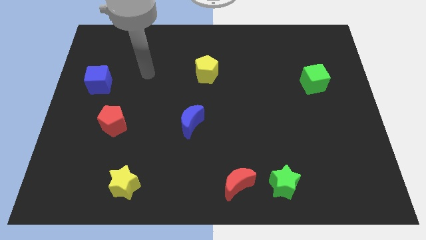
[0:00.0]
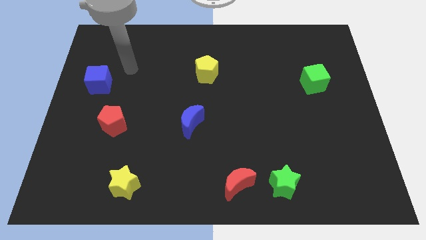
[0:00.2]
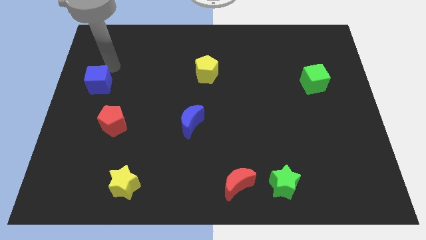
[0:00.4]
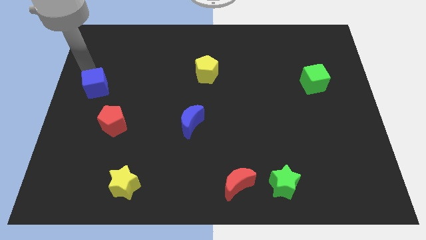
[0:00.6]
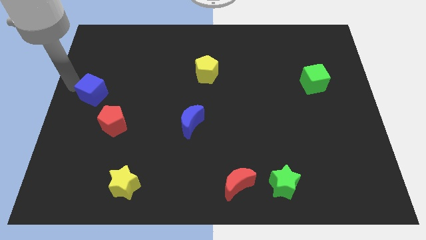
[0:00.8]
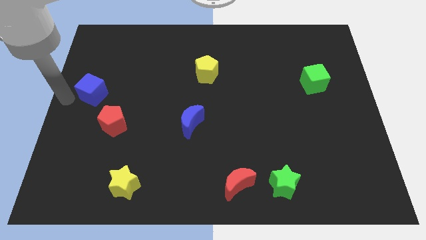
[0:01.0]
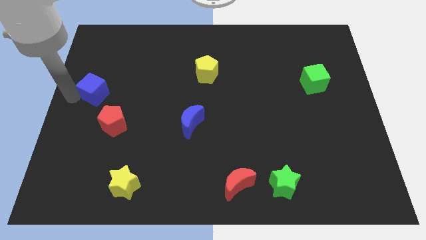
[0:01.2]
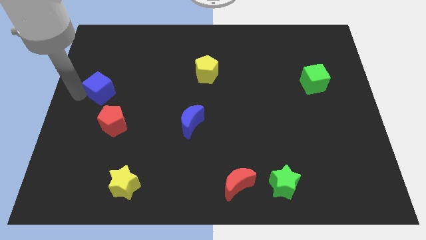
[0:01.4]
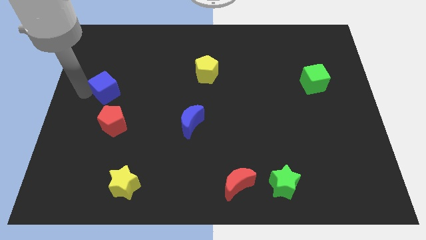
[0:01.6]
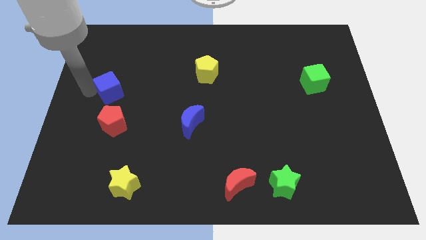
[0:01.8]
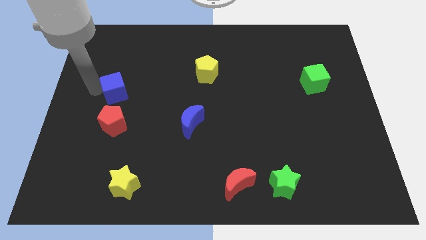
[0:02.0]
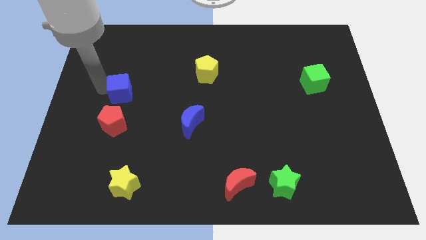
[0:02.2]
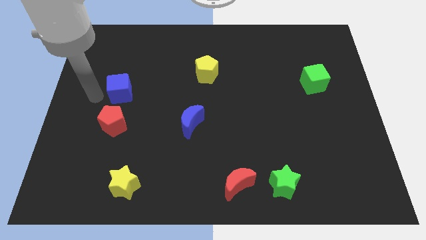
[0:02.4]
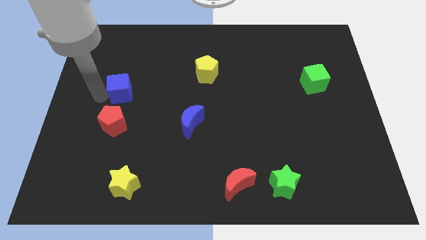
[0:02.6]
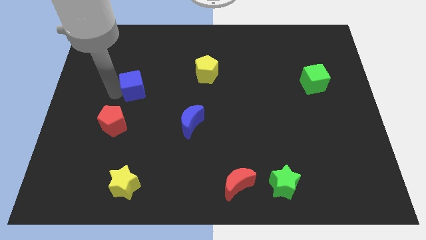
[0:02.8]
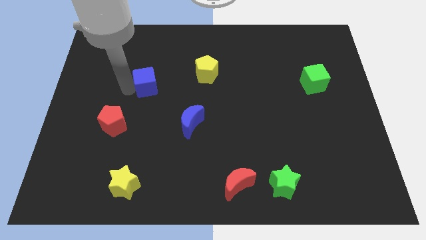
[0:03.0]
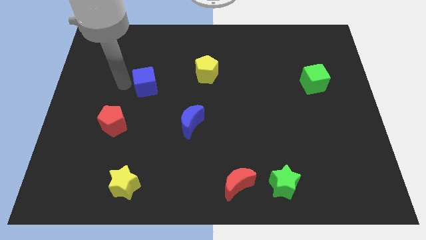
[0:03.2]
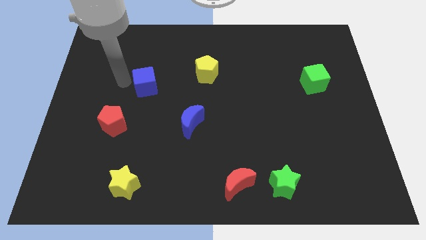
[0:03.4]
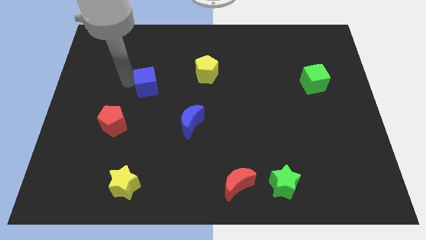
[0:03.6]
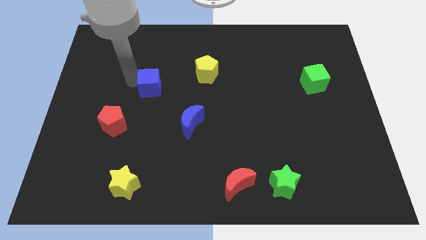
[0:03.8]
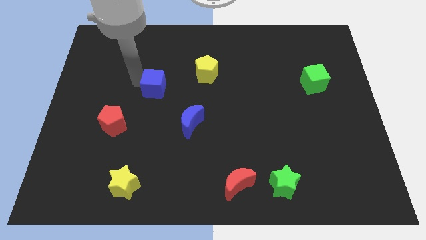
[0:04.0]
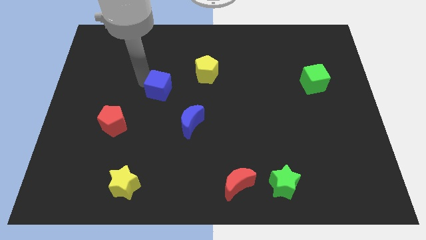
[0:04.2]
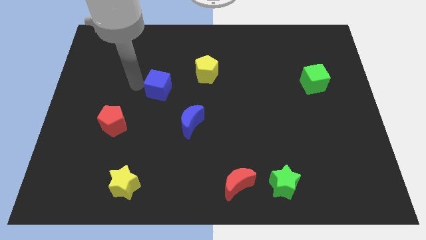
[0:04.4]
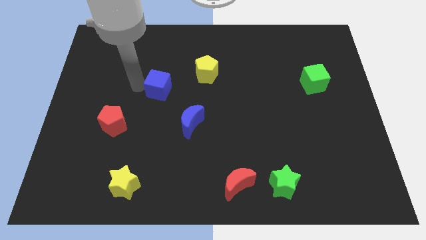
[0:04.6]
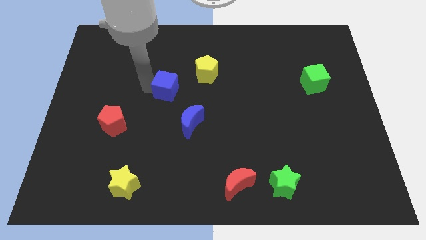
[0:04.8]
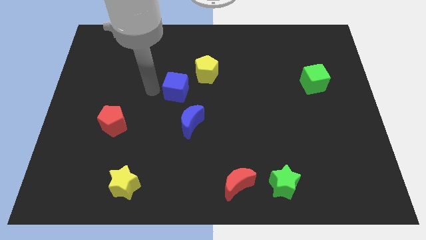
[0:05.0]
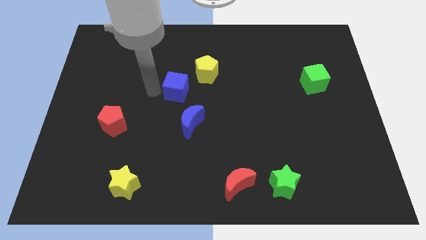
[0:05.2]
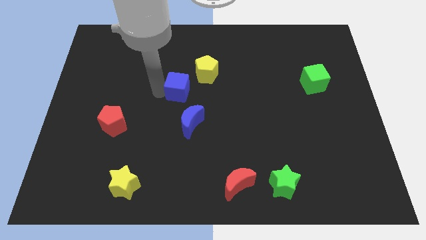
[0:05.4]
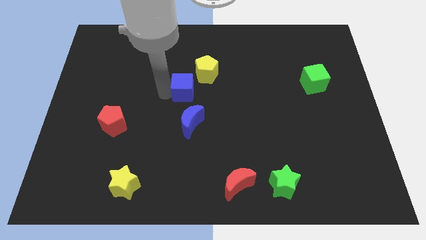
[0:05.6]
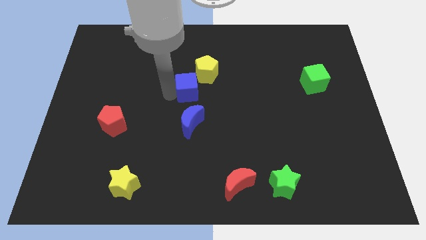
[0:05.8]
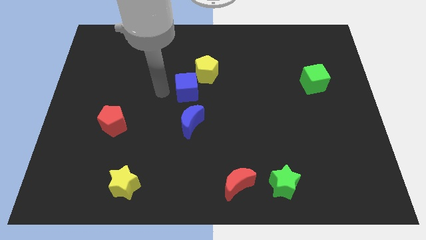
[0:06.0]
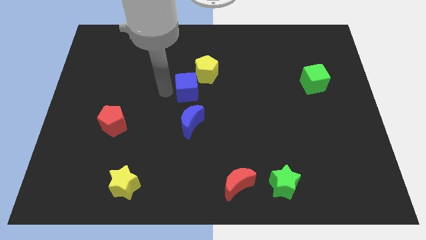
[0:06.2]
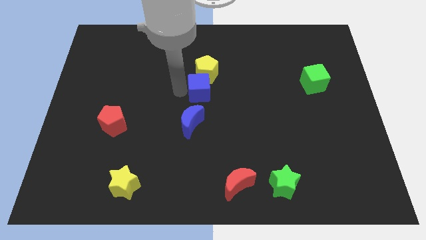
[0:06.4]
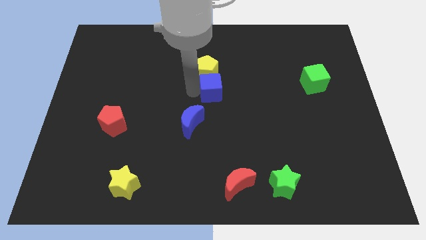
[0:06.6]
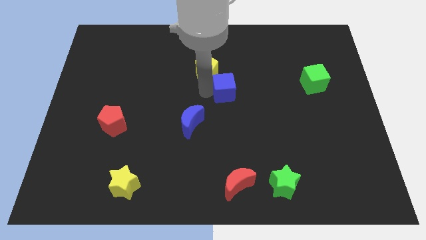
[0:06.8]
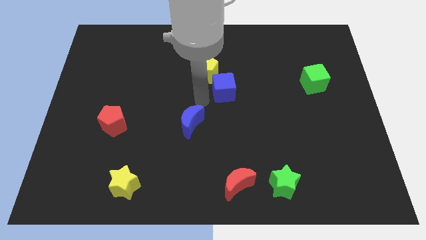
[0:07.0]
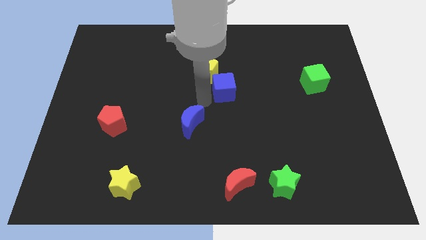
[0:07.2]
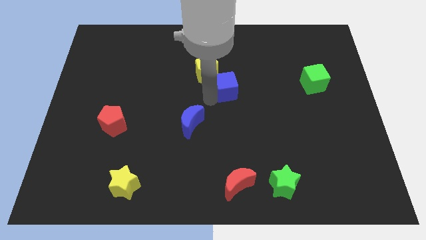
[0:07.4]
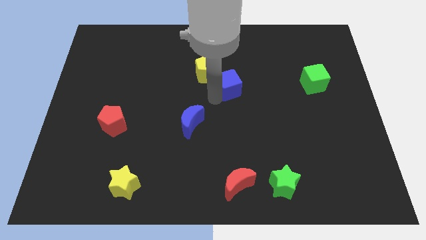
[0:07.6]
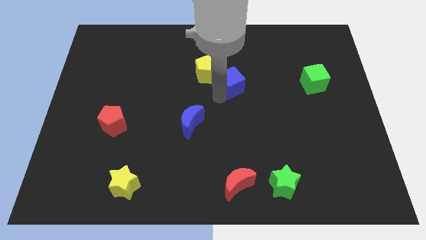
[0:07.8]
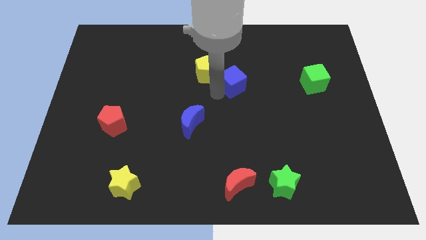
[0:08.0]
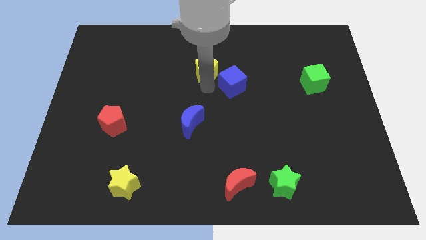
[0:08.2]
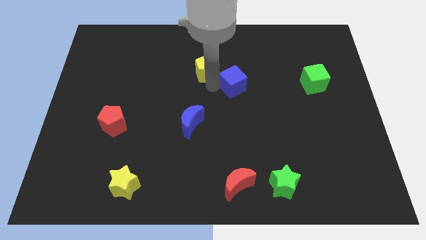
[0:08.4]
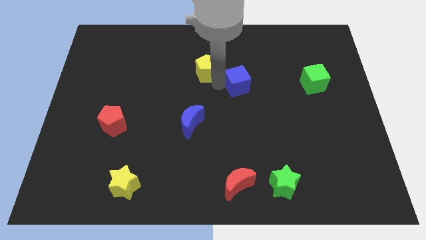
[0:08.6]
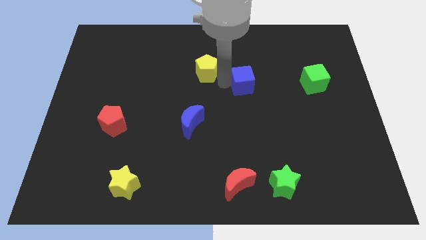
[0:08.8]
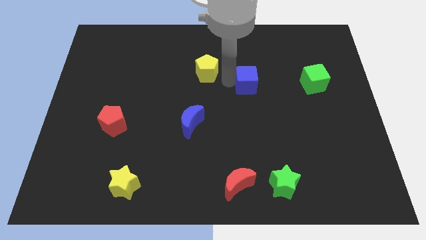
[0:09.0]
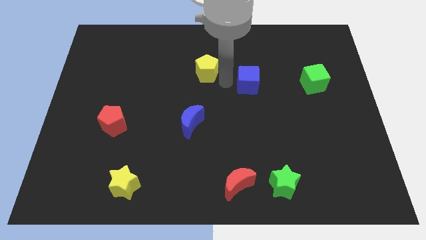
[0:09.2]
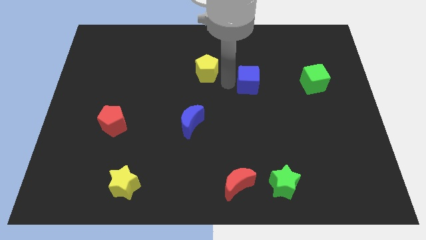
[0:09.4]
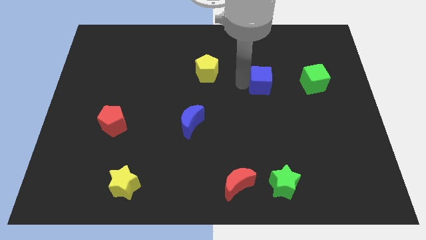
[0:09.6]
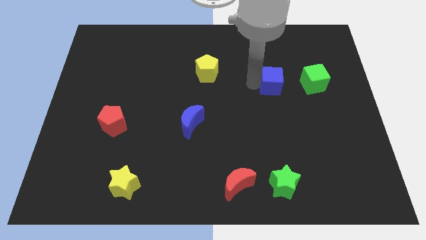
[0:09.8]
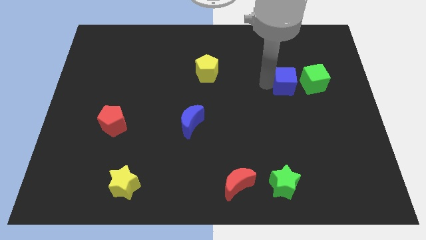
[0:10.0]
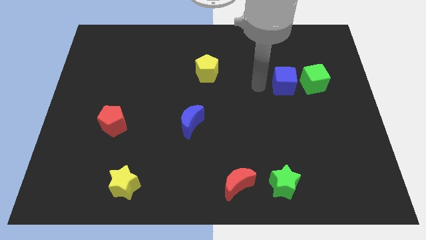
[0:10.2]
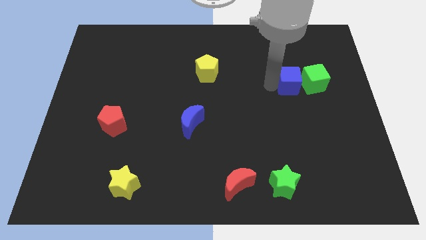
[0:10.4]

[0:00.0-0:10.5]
push the blue cube close to the green cube
